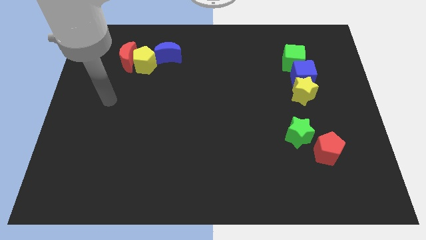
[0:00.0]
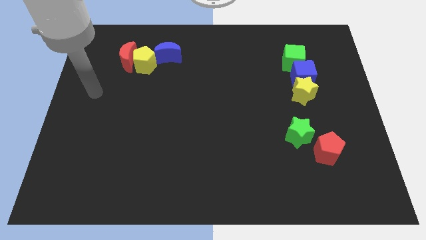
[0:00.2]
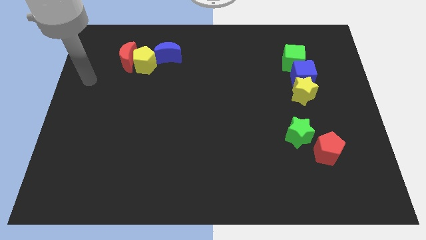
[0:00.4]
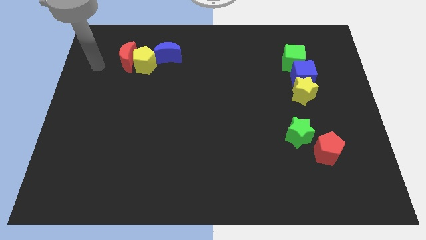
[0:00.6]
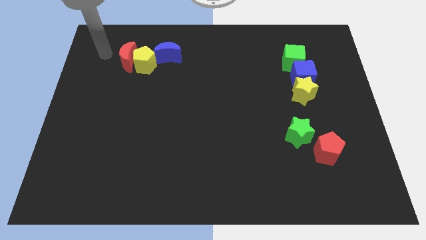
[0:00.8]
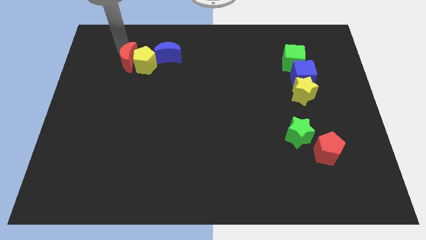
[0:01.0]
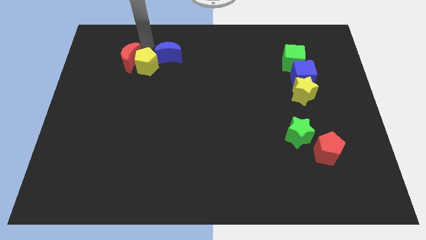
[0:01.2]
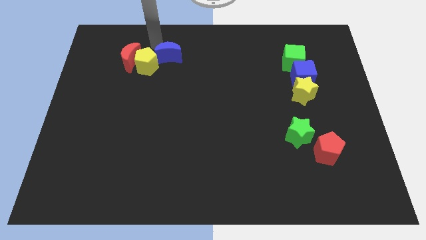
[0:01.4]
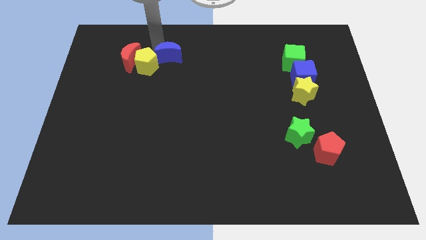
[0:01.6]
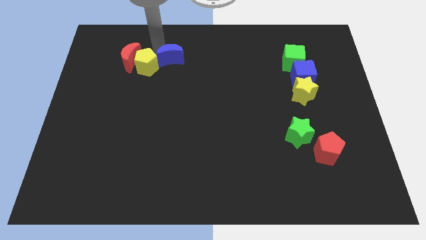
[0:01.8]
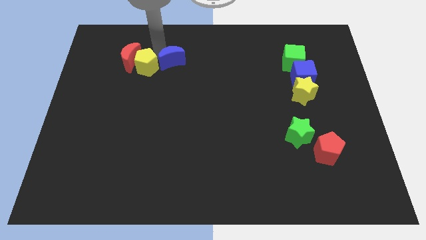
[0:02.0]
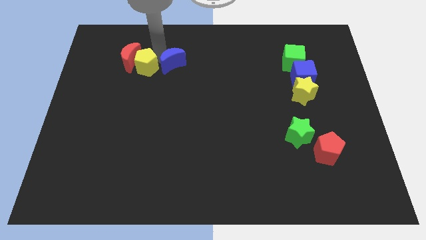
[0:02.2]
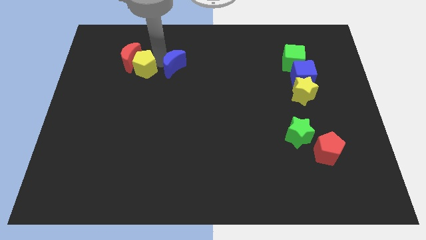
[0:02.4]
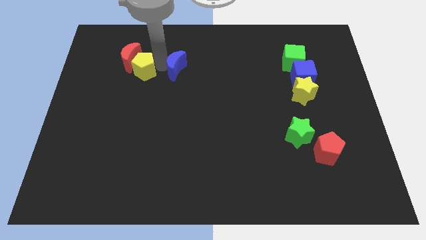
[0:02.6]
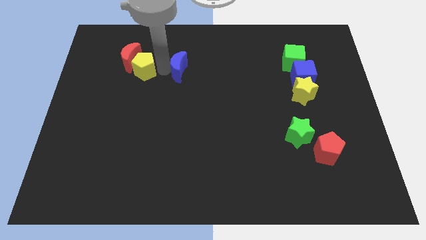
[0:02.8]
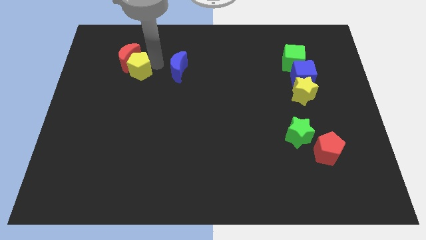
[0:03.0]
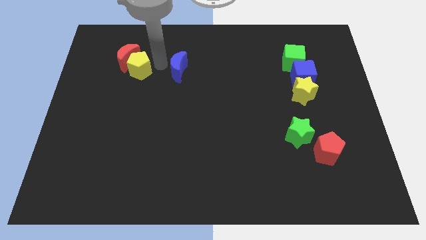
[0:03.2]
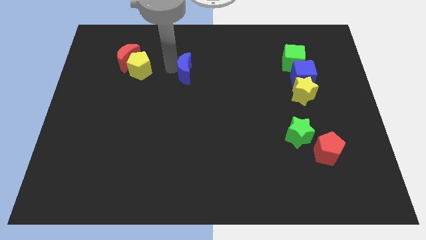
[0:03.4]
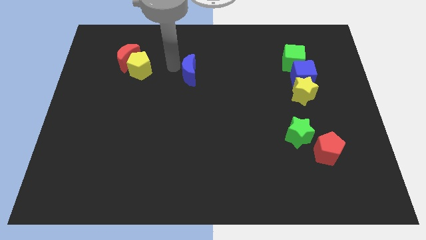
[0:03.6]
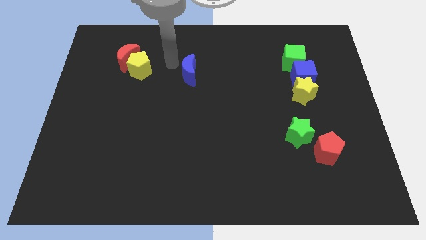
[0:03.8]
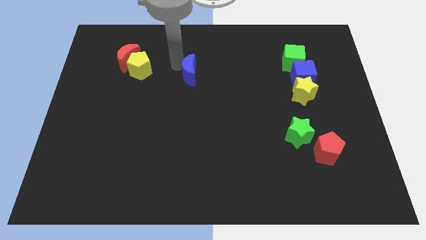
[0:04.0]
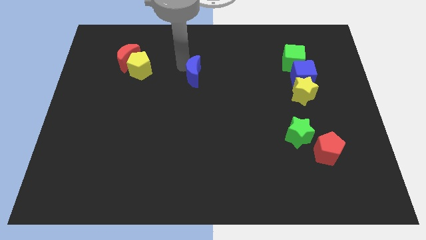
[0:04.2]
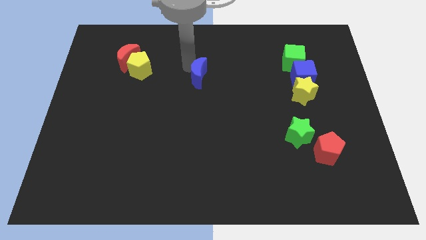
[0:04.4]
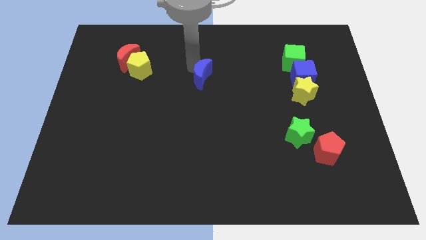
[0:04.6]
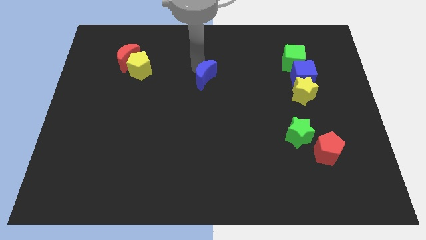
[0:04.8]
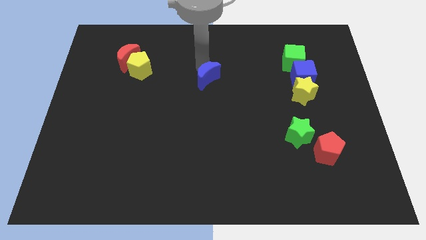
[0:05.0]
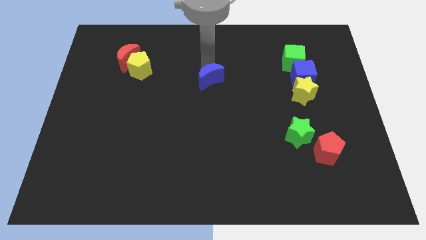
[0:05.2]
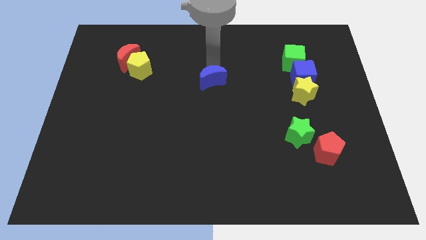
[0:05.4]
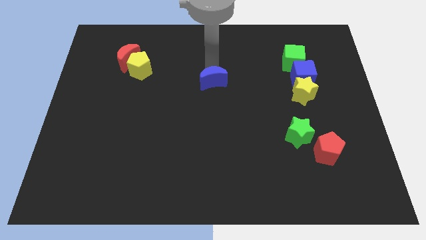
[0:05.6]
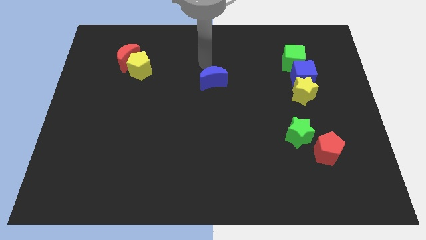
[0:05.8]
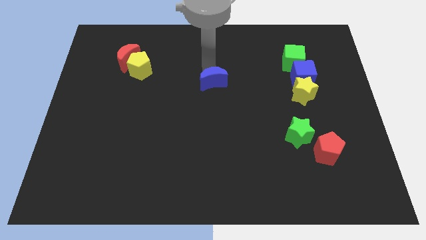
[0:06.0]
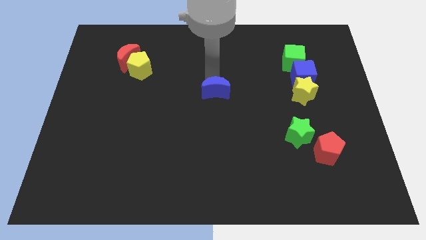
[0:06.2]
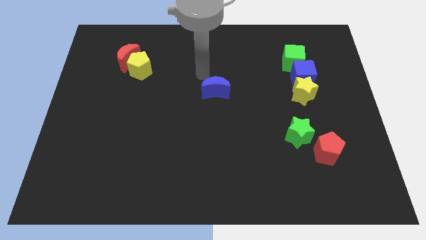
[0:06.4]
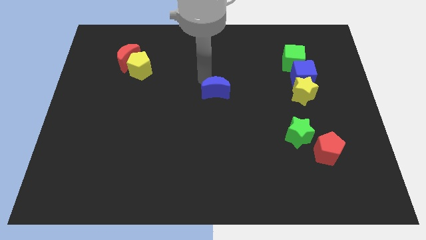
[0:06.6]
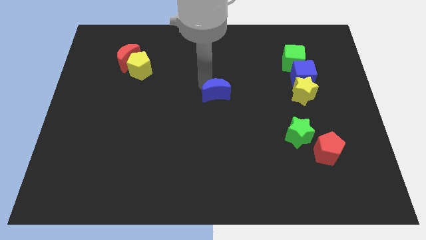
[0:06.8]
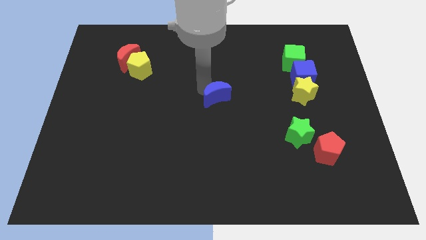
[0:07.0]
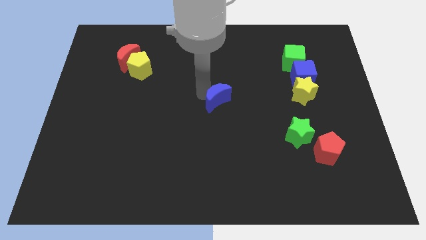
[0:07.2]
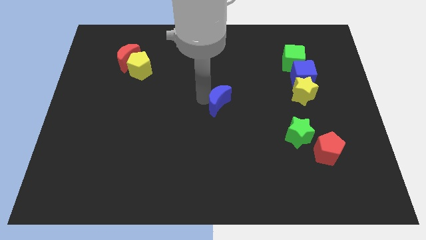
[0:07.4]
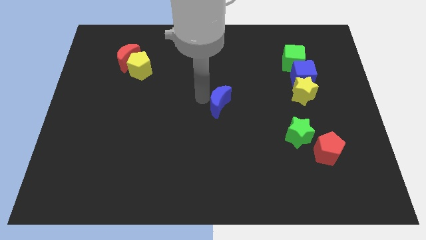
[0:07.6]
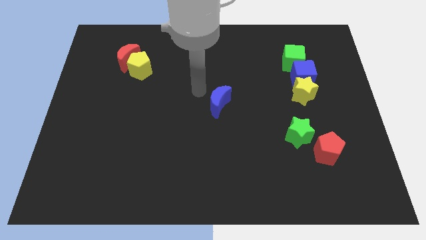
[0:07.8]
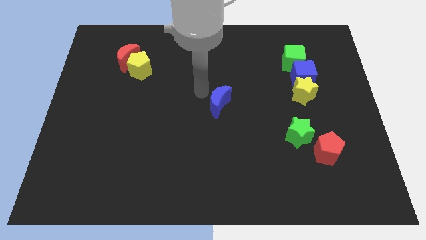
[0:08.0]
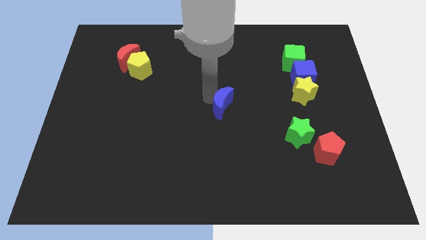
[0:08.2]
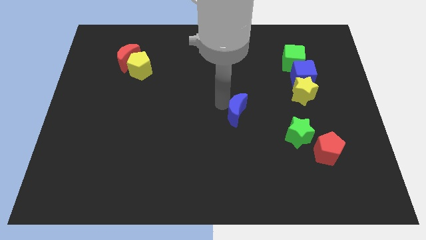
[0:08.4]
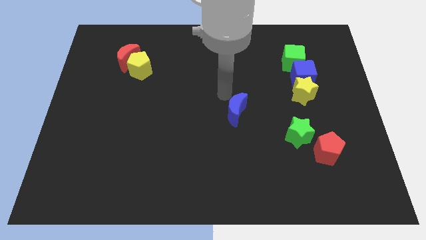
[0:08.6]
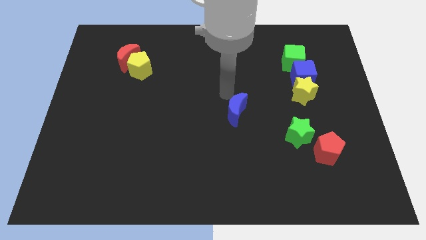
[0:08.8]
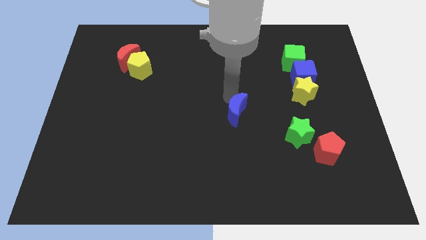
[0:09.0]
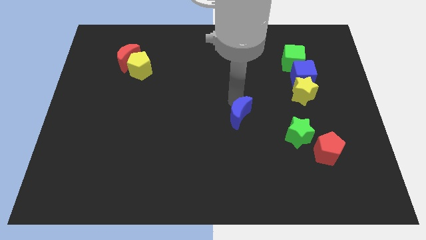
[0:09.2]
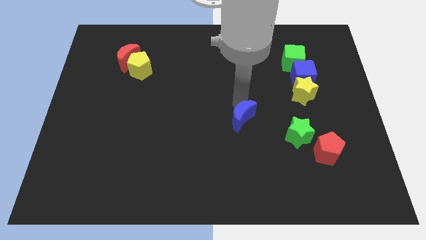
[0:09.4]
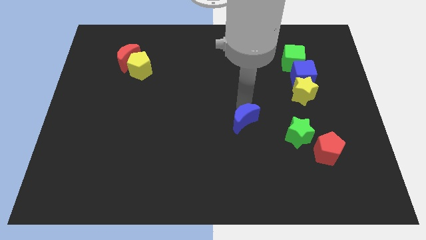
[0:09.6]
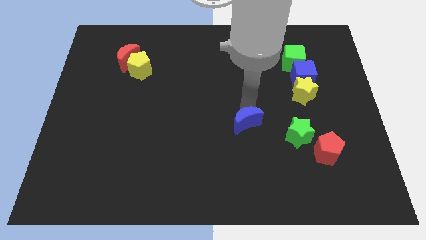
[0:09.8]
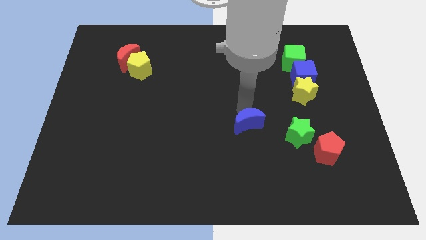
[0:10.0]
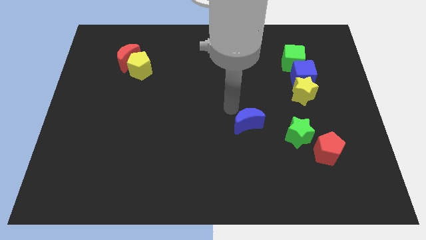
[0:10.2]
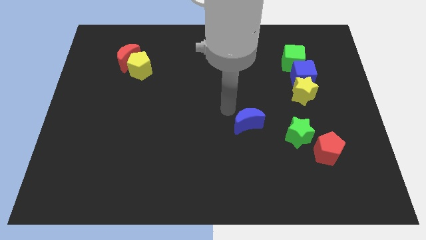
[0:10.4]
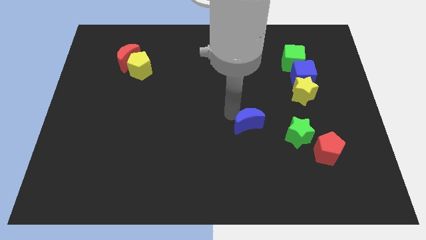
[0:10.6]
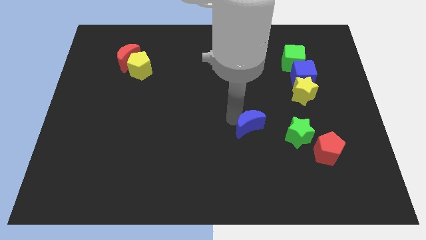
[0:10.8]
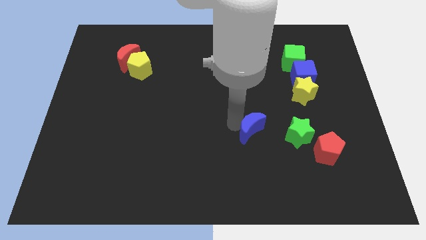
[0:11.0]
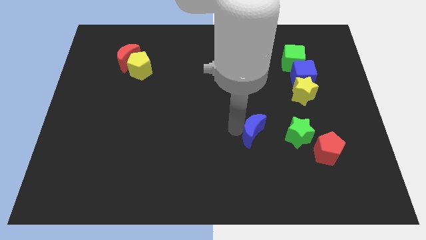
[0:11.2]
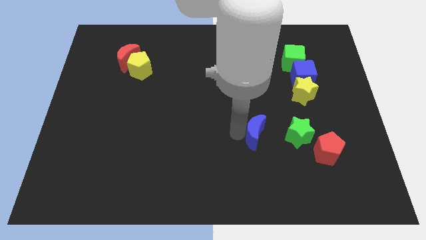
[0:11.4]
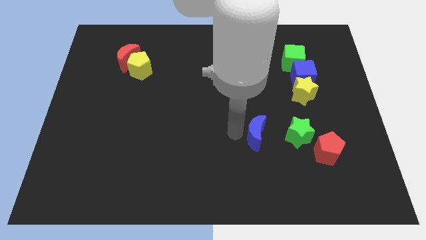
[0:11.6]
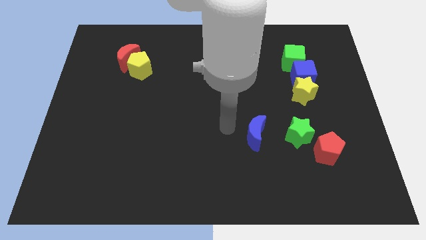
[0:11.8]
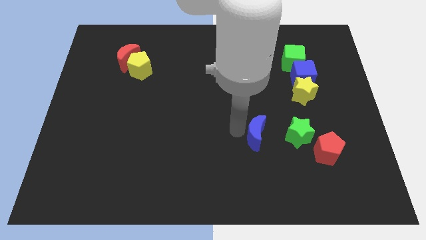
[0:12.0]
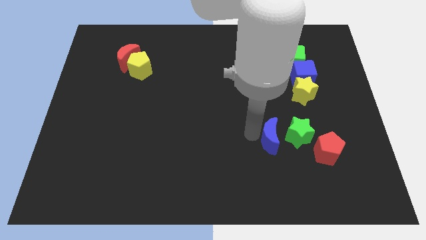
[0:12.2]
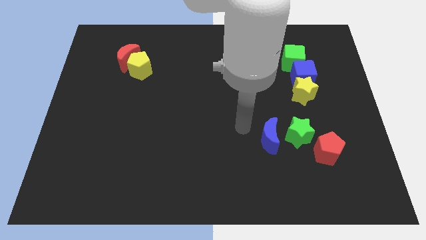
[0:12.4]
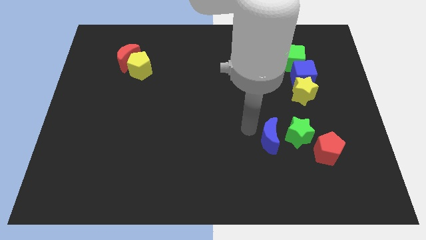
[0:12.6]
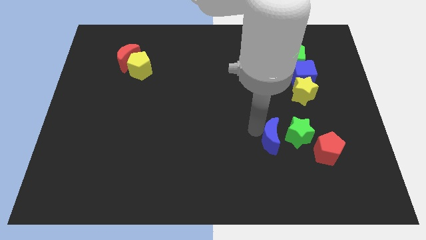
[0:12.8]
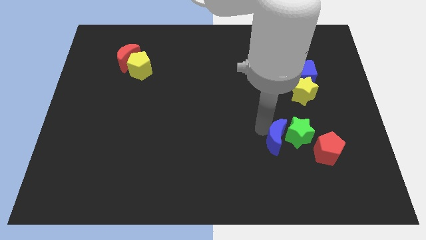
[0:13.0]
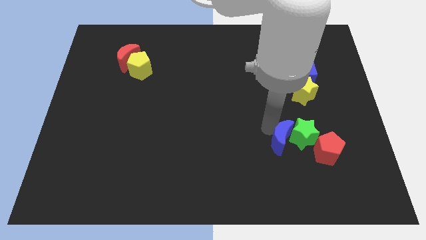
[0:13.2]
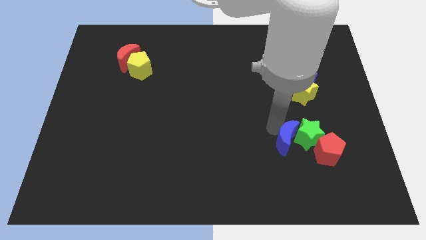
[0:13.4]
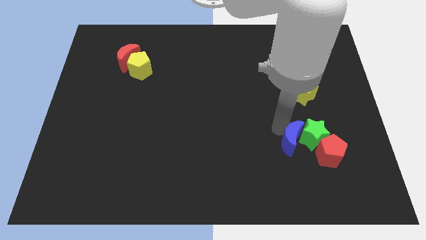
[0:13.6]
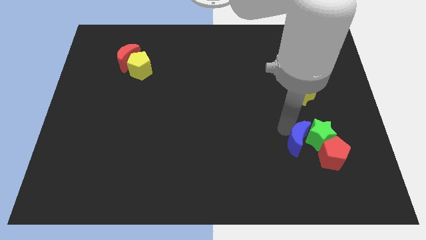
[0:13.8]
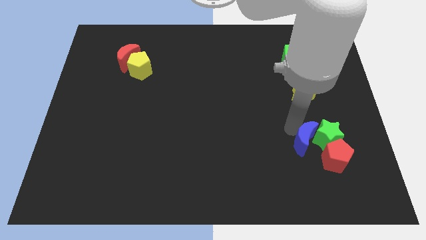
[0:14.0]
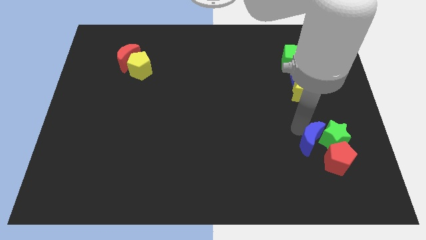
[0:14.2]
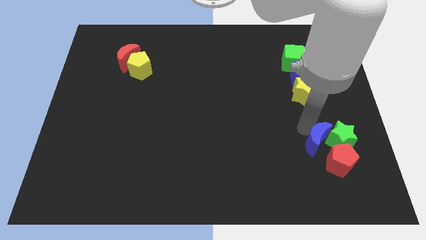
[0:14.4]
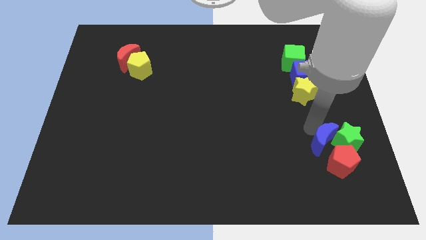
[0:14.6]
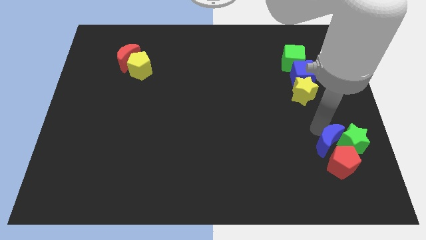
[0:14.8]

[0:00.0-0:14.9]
slide the blue moon to the red pentagon

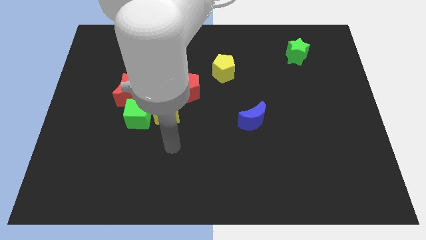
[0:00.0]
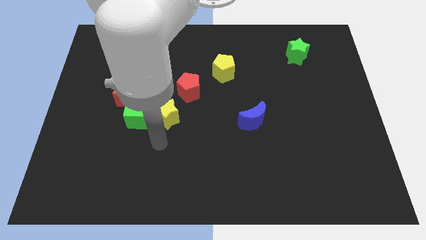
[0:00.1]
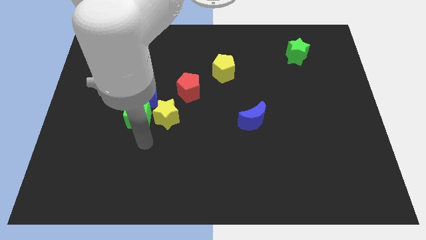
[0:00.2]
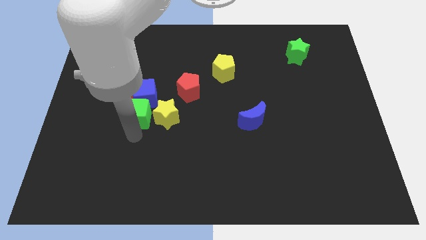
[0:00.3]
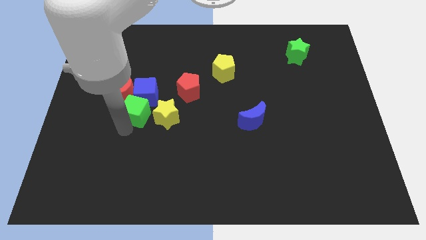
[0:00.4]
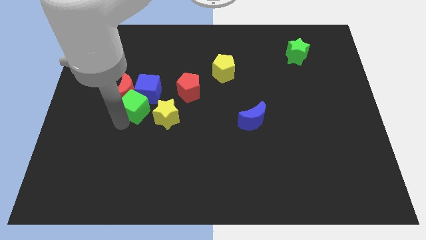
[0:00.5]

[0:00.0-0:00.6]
put the red moon next to the green cube
